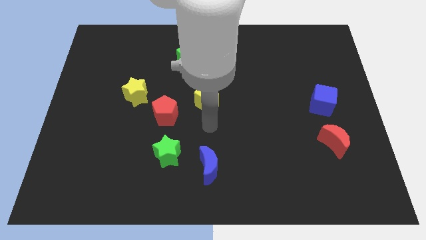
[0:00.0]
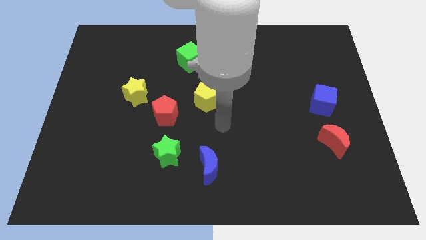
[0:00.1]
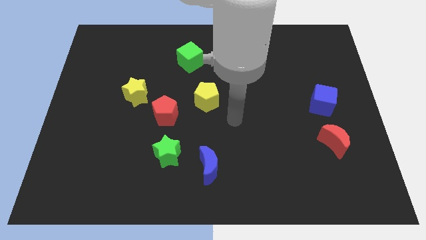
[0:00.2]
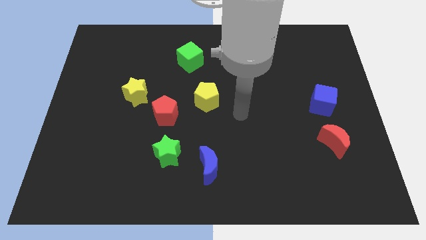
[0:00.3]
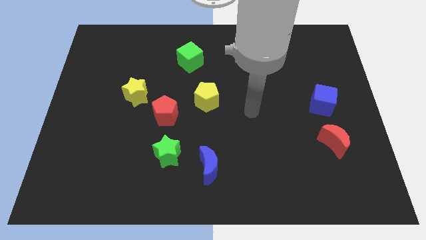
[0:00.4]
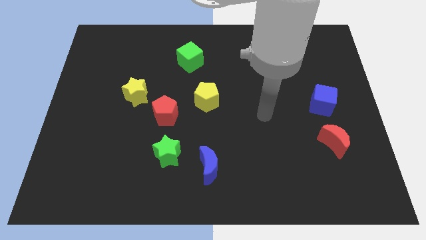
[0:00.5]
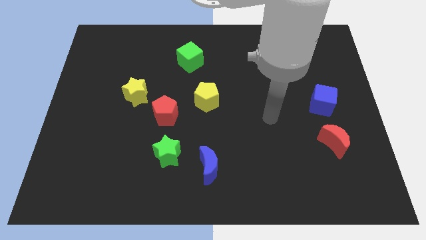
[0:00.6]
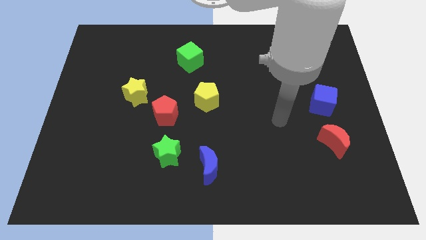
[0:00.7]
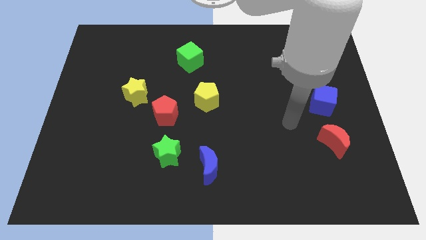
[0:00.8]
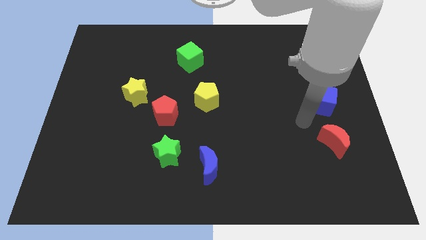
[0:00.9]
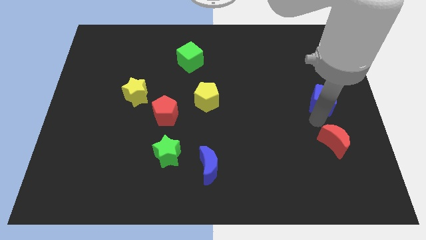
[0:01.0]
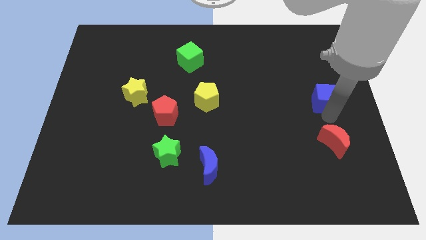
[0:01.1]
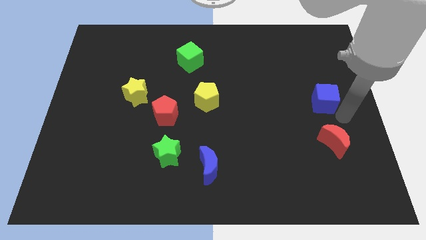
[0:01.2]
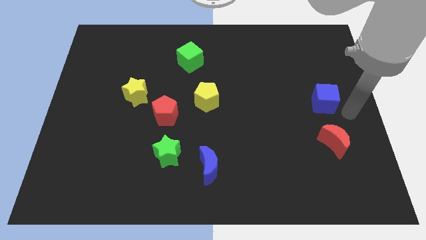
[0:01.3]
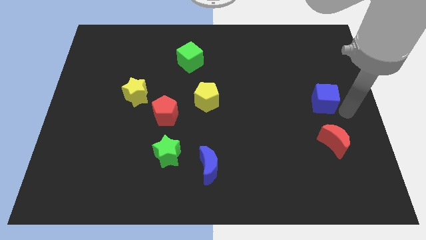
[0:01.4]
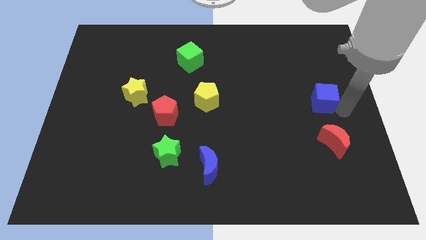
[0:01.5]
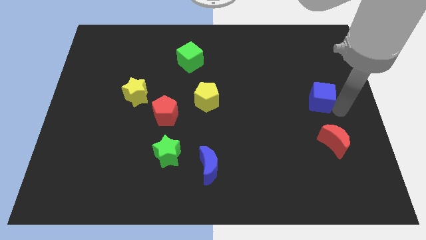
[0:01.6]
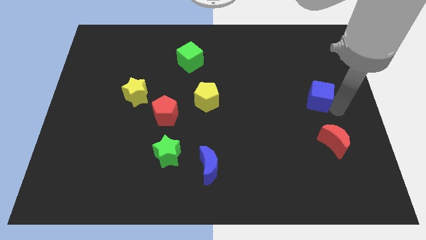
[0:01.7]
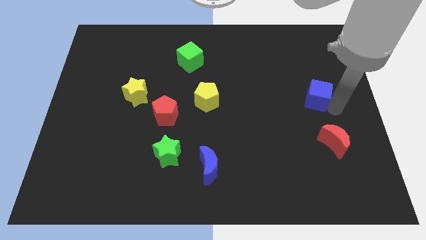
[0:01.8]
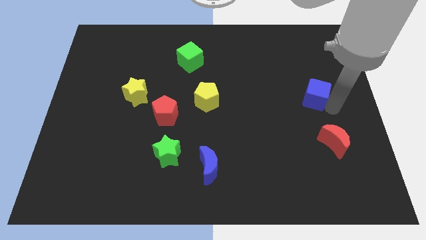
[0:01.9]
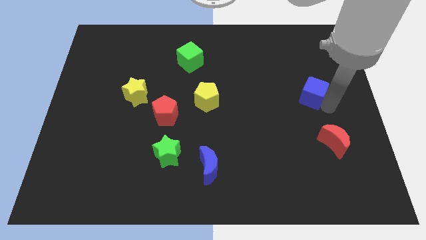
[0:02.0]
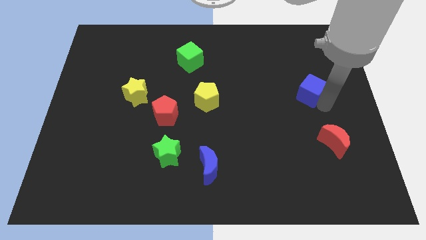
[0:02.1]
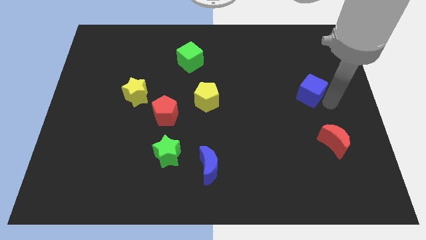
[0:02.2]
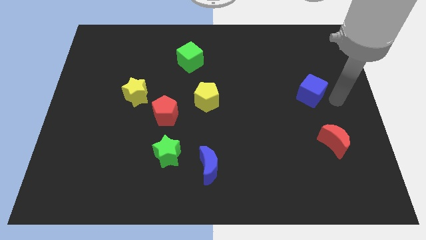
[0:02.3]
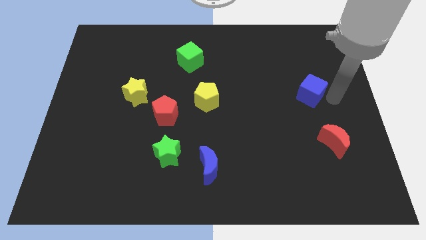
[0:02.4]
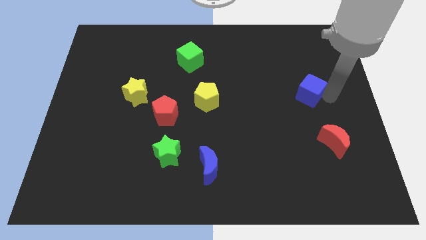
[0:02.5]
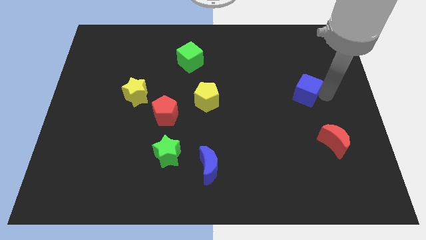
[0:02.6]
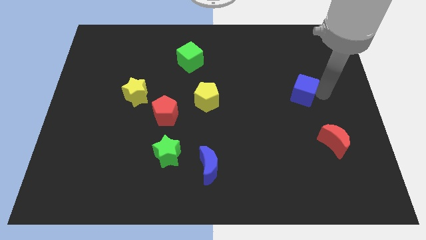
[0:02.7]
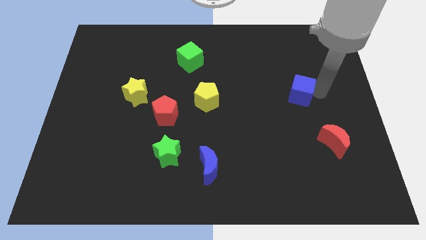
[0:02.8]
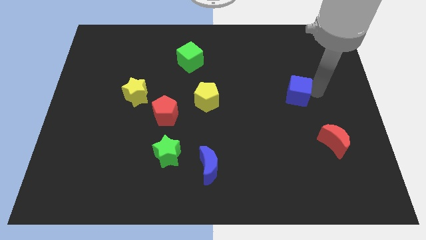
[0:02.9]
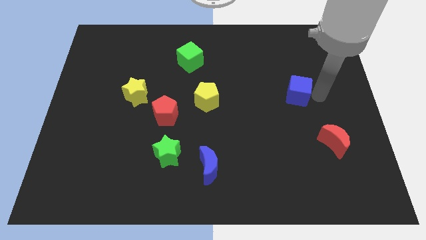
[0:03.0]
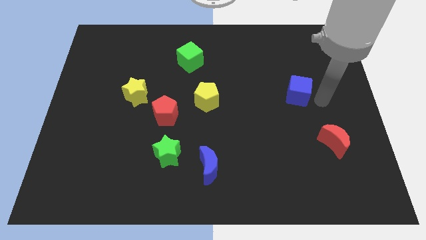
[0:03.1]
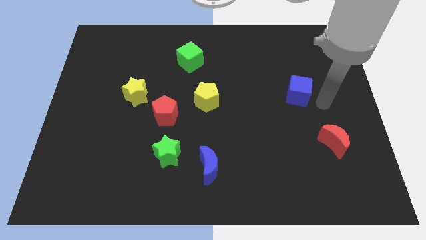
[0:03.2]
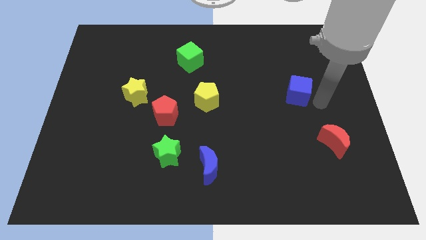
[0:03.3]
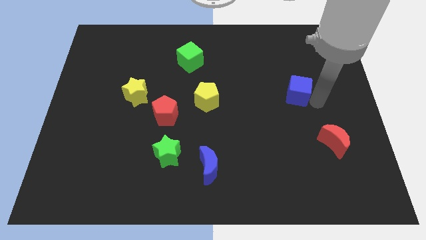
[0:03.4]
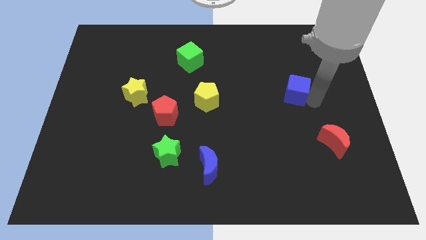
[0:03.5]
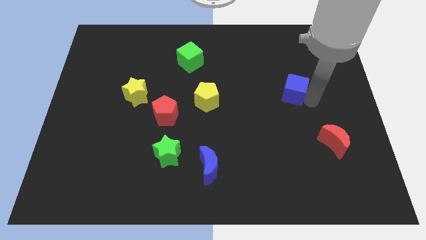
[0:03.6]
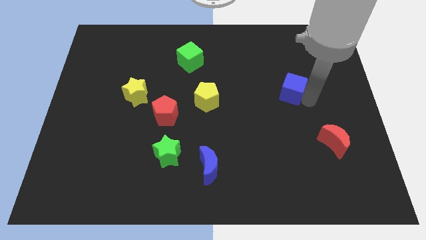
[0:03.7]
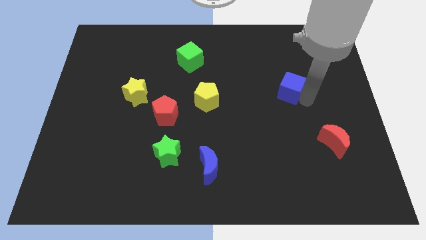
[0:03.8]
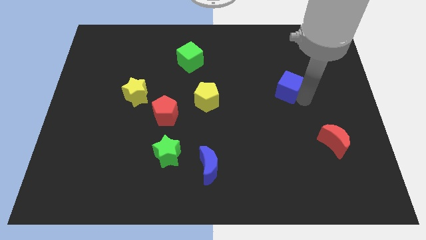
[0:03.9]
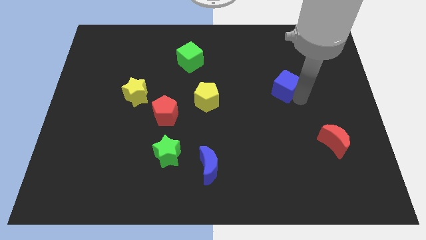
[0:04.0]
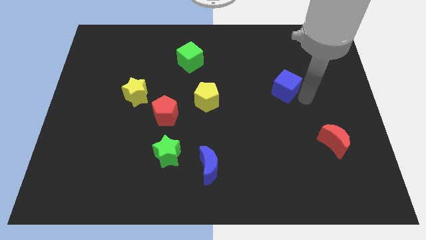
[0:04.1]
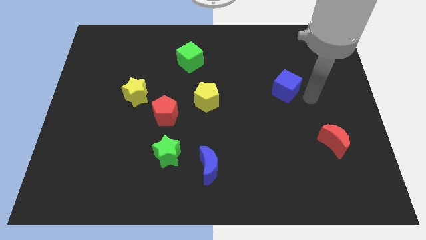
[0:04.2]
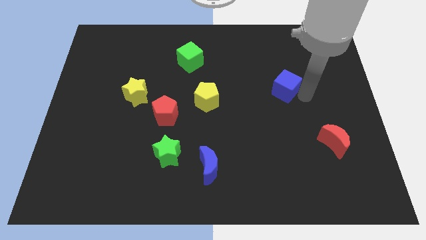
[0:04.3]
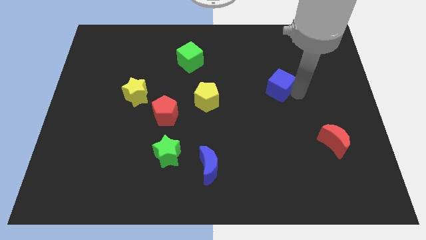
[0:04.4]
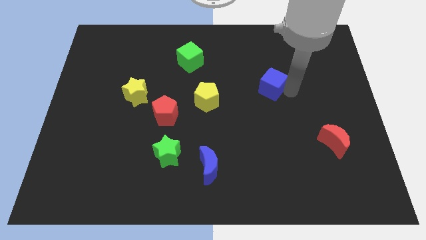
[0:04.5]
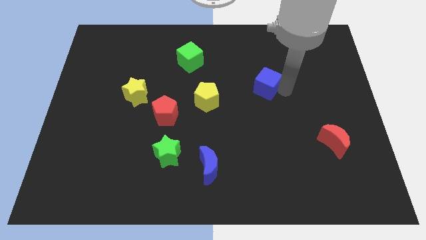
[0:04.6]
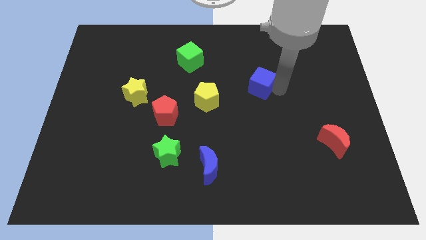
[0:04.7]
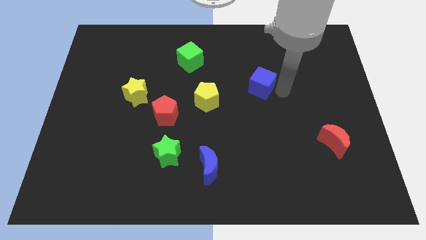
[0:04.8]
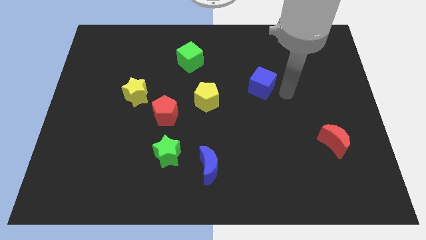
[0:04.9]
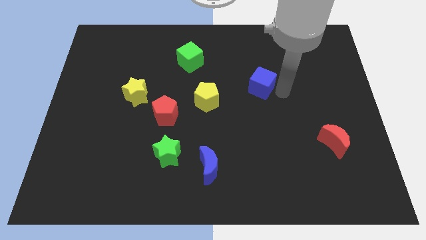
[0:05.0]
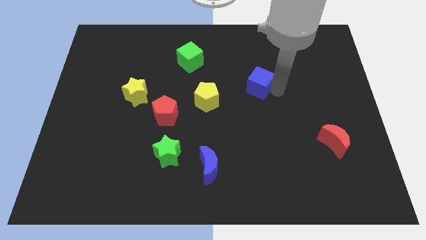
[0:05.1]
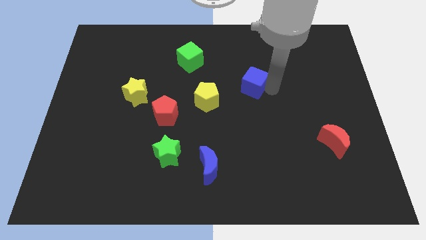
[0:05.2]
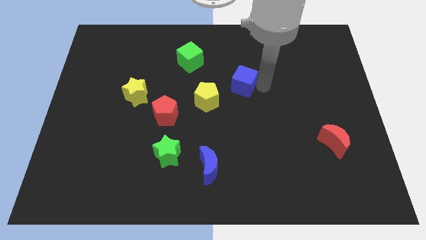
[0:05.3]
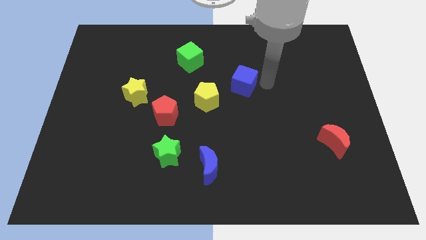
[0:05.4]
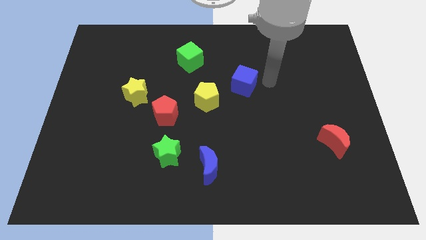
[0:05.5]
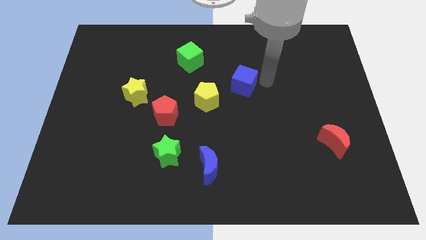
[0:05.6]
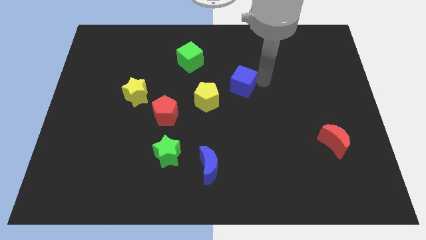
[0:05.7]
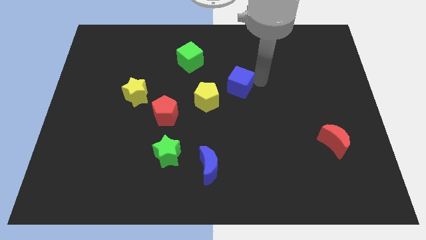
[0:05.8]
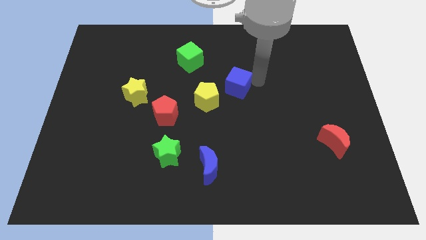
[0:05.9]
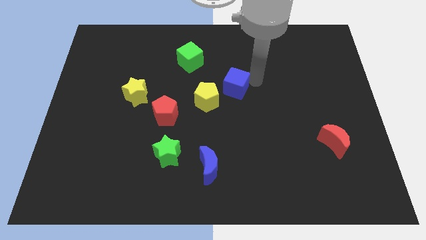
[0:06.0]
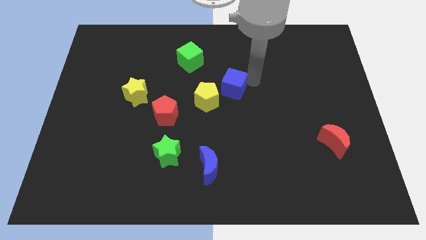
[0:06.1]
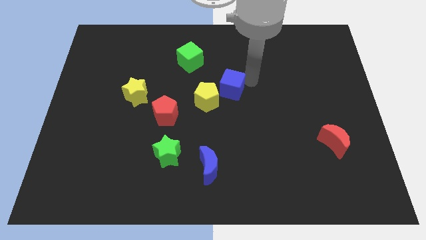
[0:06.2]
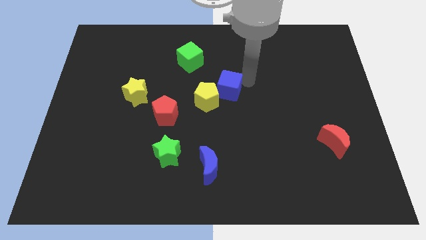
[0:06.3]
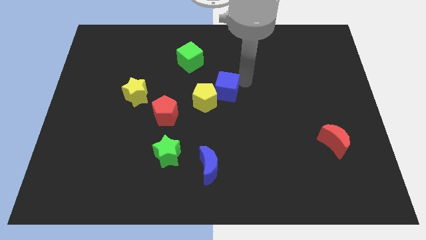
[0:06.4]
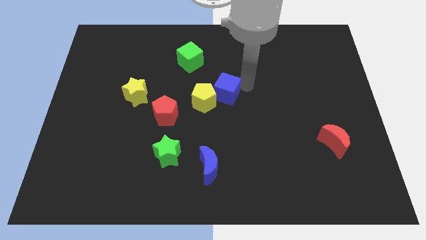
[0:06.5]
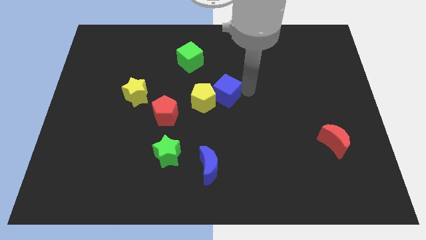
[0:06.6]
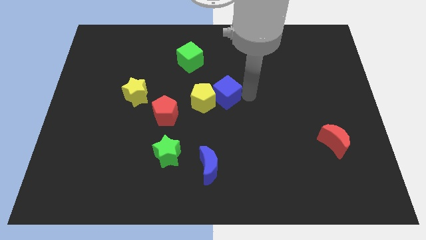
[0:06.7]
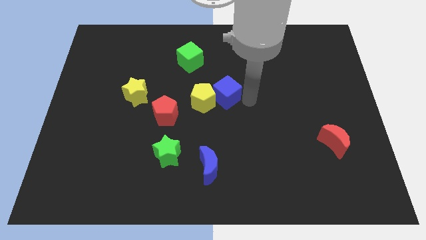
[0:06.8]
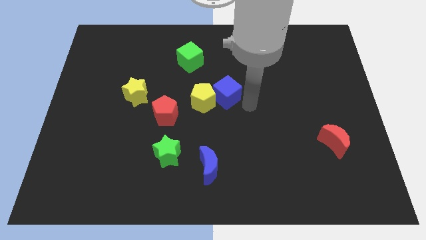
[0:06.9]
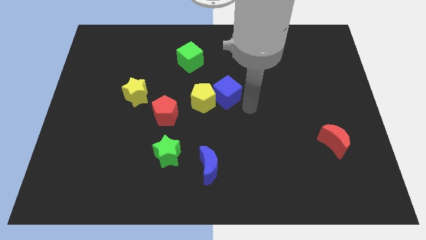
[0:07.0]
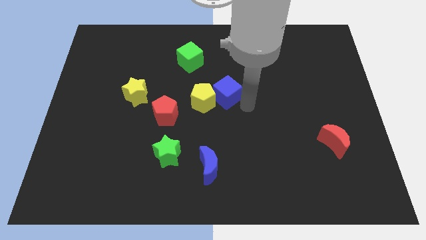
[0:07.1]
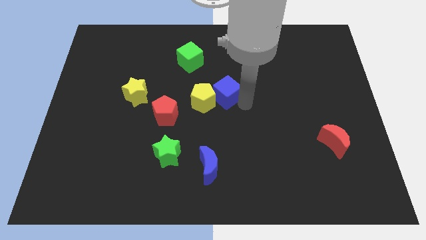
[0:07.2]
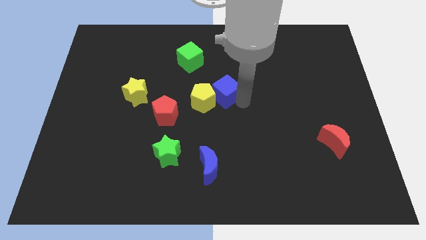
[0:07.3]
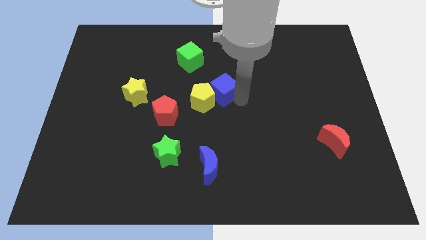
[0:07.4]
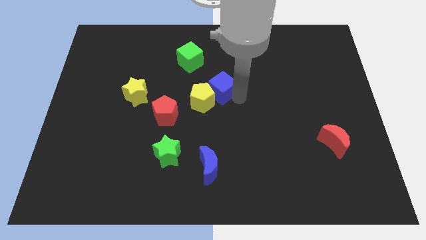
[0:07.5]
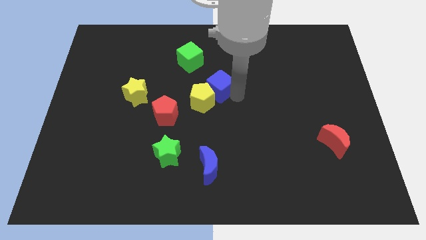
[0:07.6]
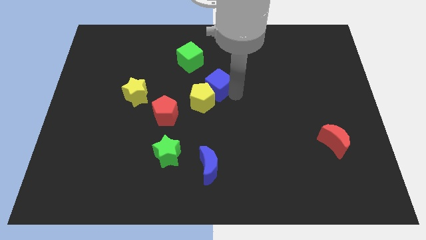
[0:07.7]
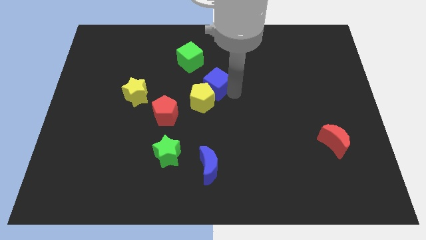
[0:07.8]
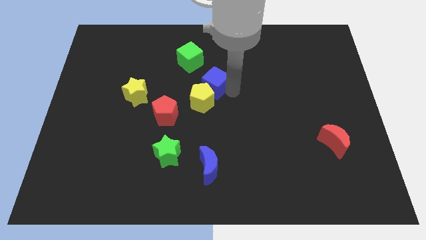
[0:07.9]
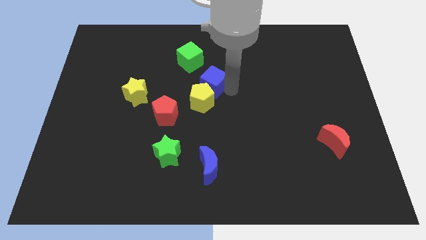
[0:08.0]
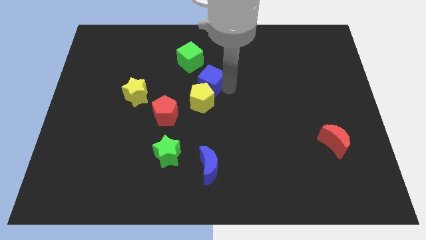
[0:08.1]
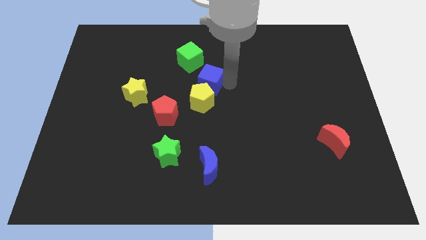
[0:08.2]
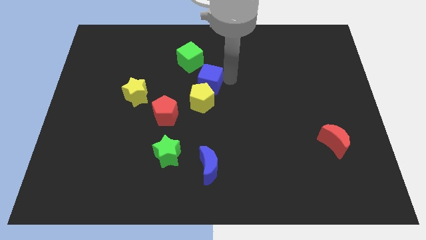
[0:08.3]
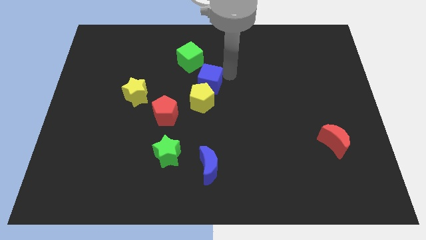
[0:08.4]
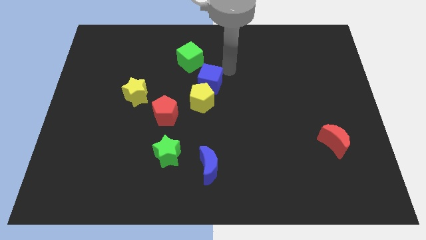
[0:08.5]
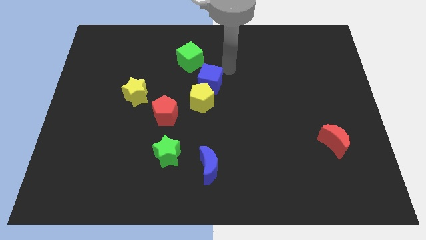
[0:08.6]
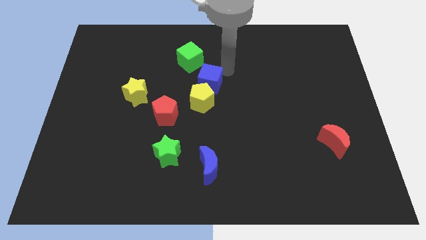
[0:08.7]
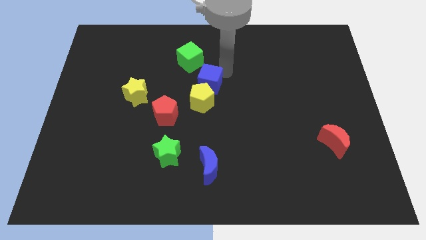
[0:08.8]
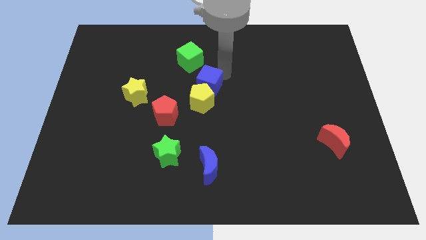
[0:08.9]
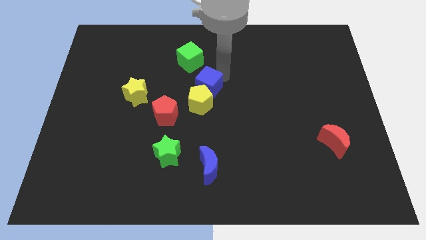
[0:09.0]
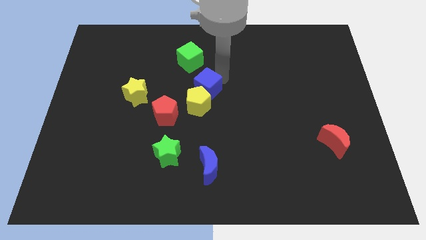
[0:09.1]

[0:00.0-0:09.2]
slide the blue cube diagonally up and to the right of the red pentagon
